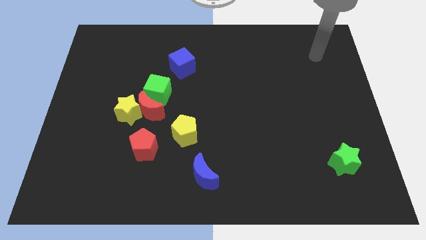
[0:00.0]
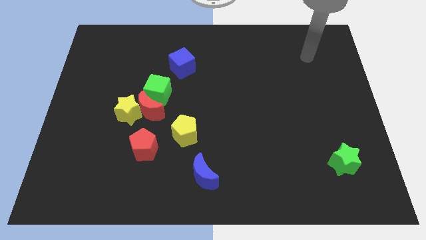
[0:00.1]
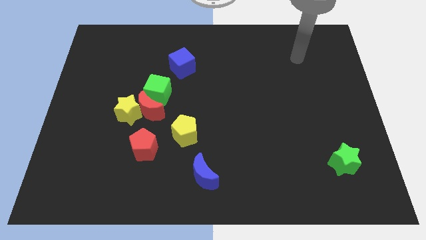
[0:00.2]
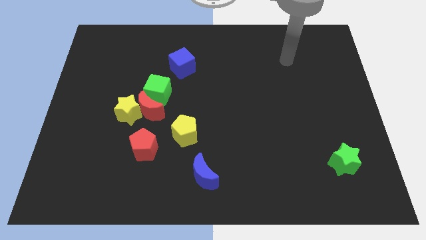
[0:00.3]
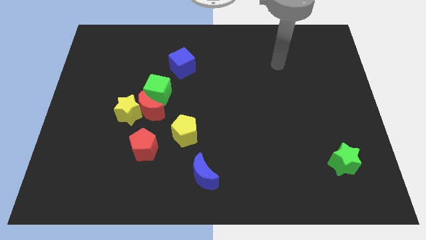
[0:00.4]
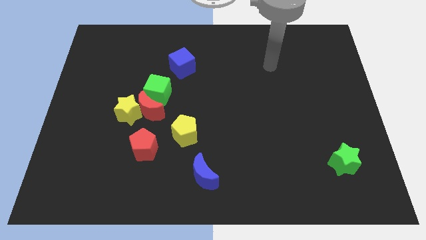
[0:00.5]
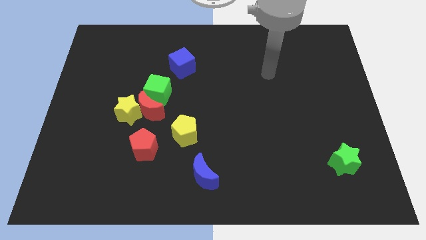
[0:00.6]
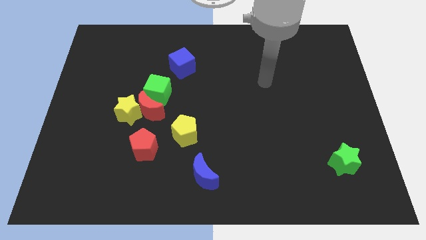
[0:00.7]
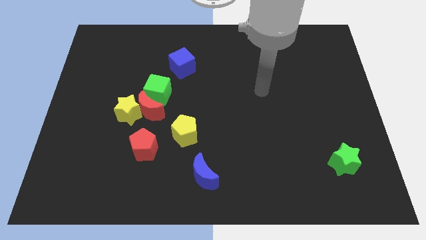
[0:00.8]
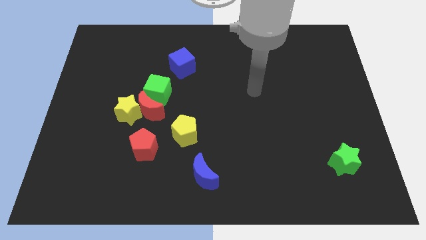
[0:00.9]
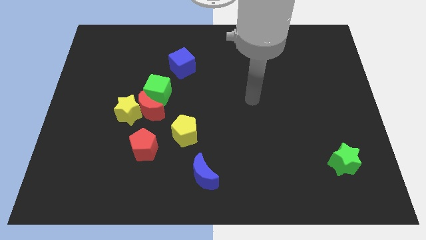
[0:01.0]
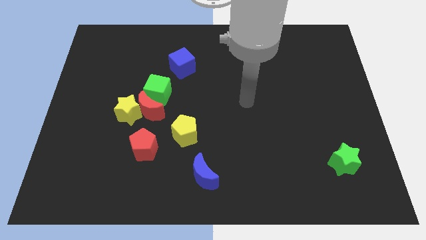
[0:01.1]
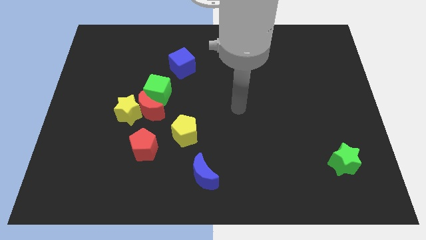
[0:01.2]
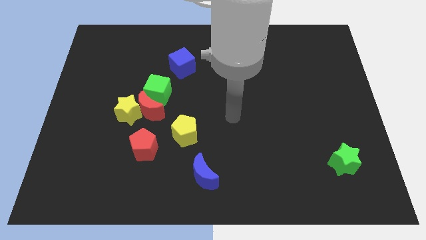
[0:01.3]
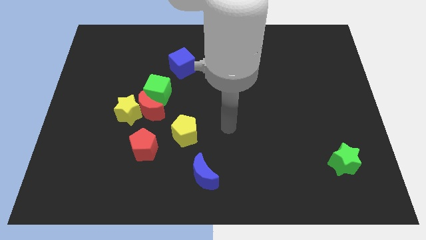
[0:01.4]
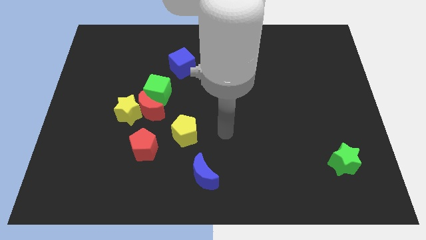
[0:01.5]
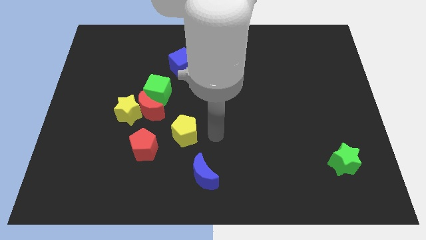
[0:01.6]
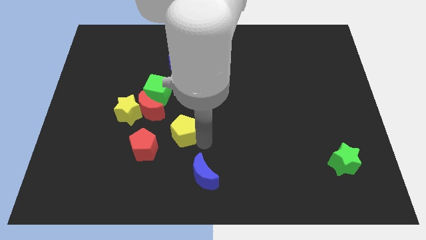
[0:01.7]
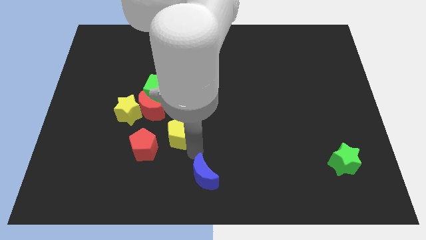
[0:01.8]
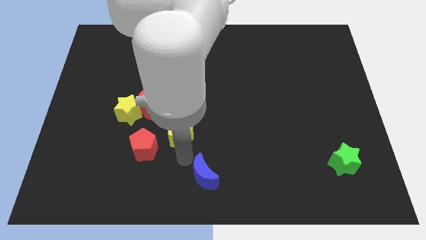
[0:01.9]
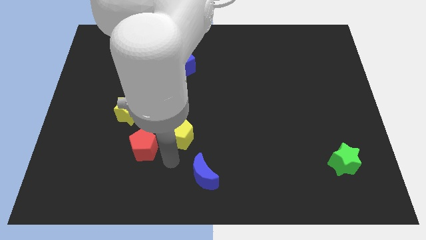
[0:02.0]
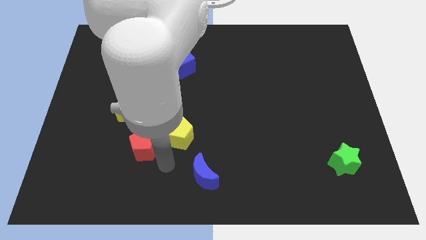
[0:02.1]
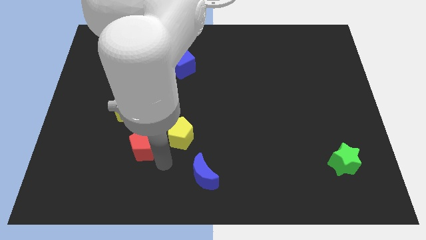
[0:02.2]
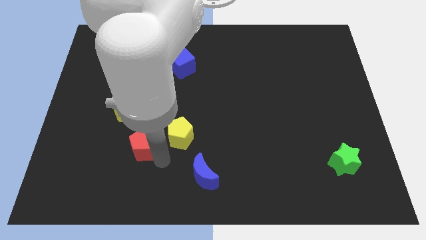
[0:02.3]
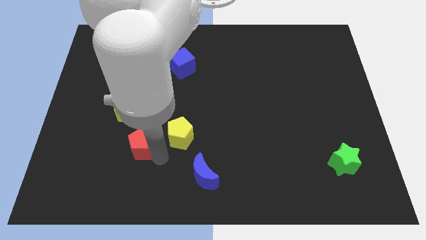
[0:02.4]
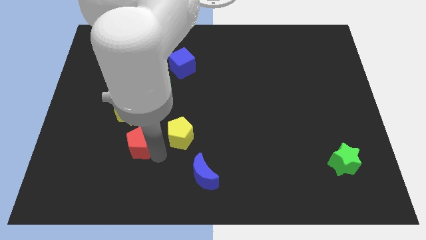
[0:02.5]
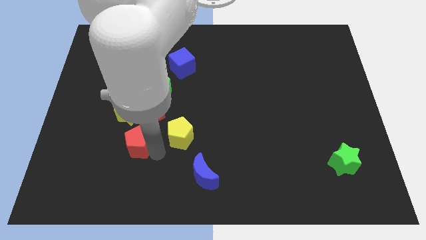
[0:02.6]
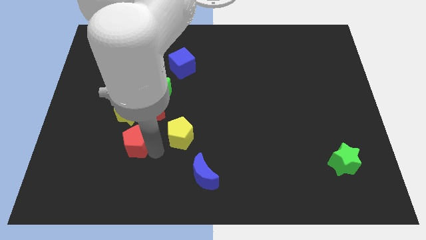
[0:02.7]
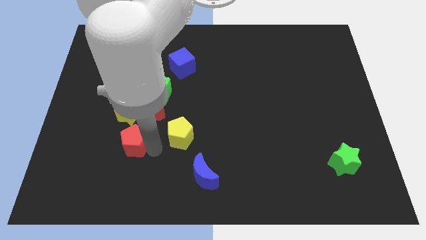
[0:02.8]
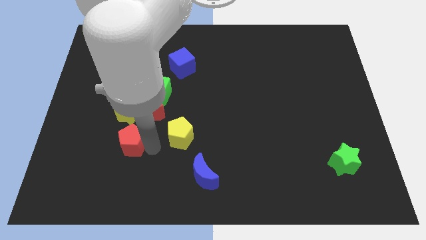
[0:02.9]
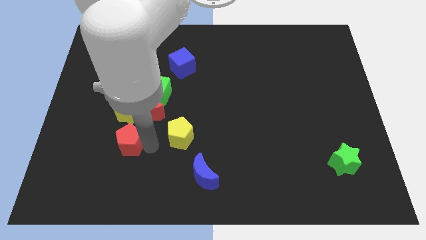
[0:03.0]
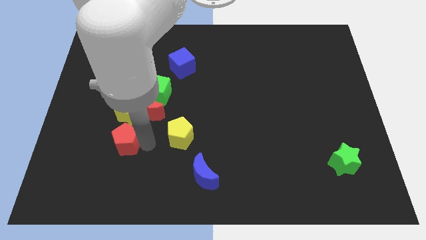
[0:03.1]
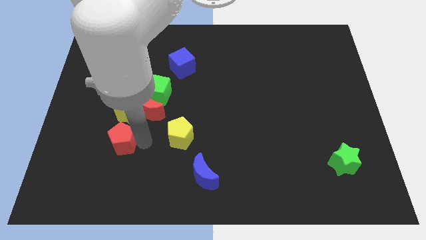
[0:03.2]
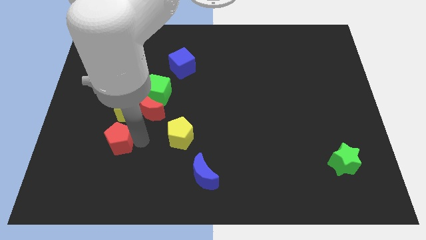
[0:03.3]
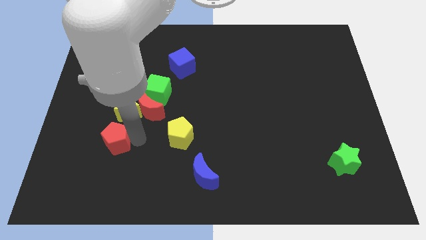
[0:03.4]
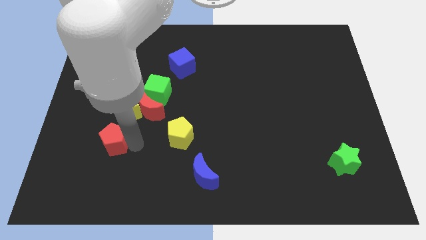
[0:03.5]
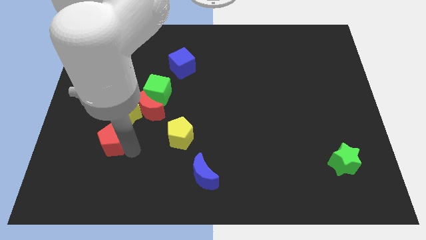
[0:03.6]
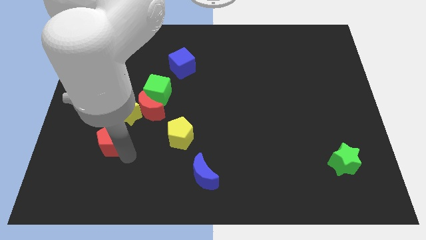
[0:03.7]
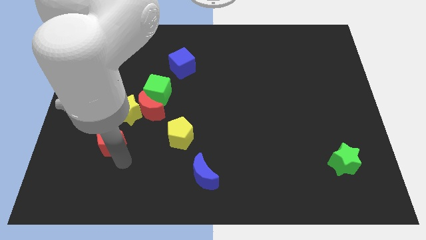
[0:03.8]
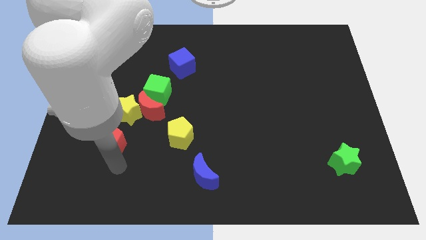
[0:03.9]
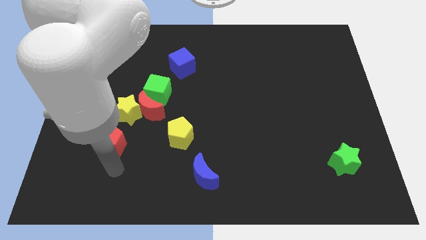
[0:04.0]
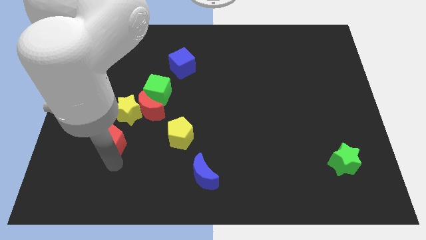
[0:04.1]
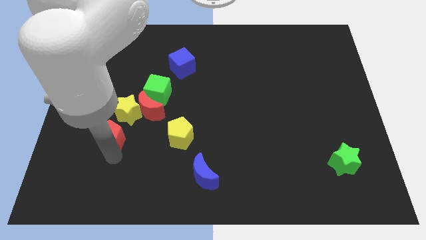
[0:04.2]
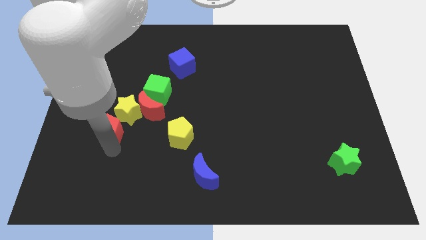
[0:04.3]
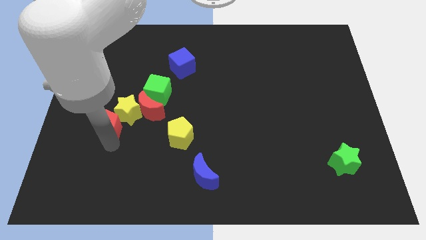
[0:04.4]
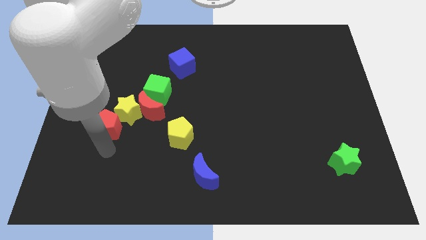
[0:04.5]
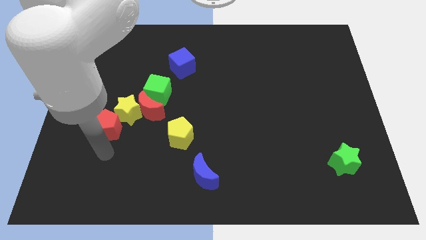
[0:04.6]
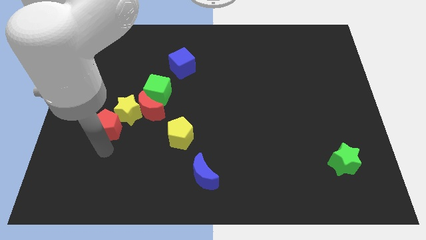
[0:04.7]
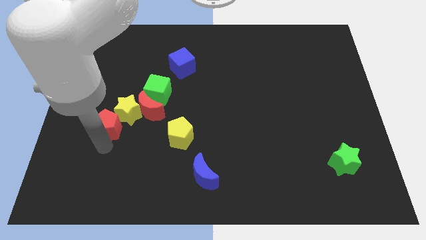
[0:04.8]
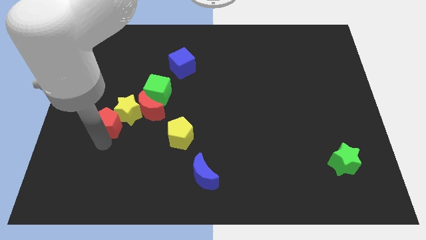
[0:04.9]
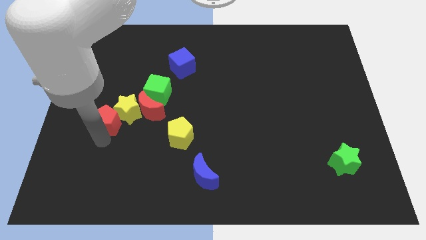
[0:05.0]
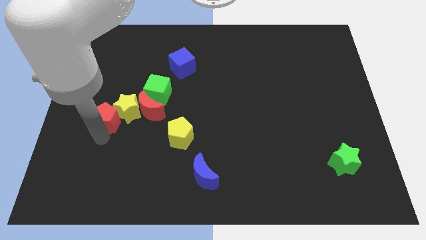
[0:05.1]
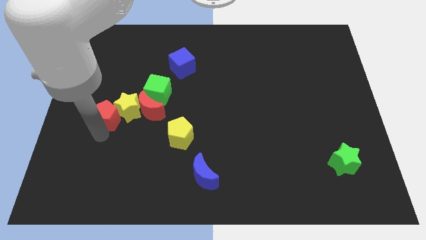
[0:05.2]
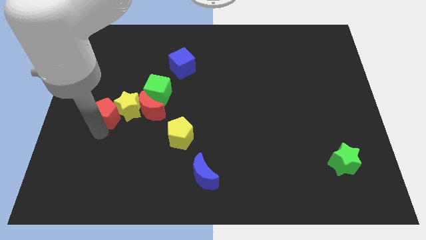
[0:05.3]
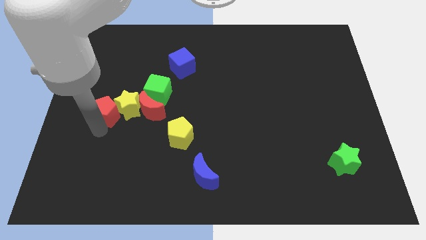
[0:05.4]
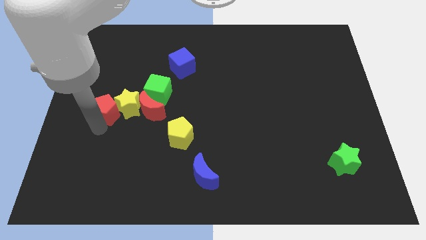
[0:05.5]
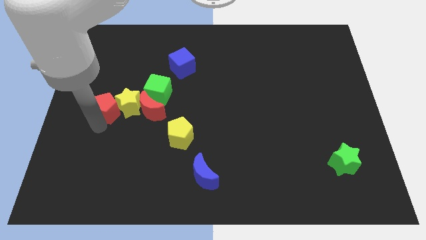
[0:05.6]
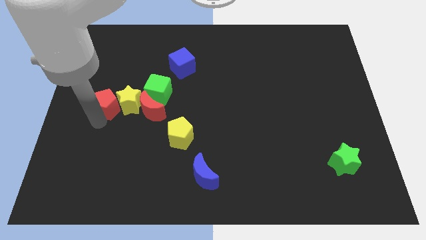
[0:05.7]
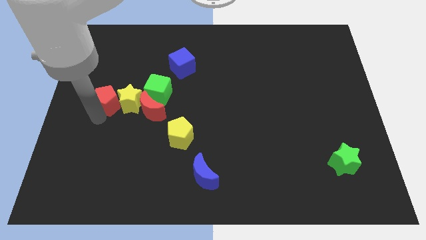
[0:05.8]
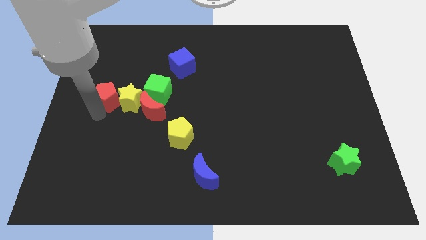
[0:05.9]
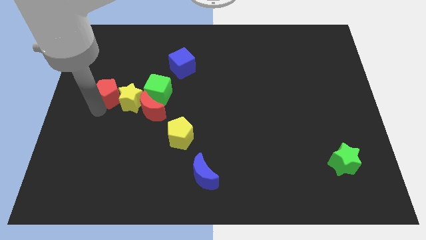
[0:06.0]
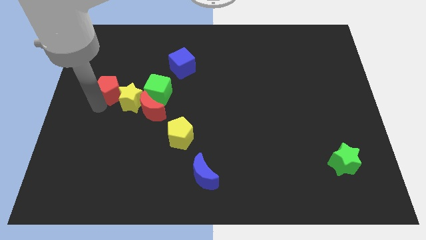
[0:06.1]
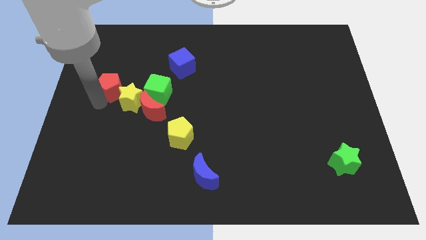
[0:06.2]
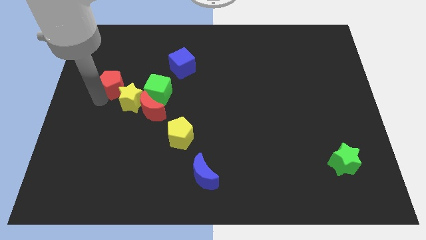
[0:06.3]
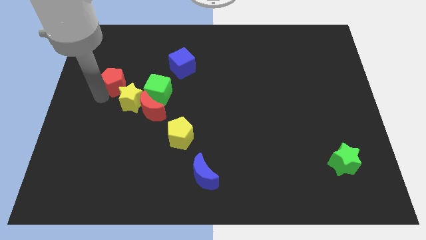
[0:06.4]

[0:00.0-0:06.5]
move the red pentagon to the top side of the yellow star
